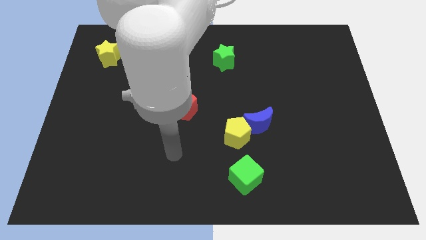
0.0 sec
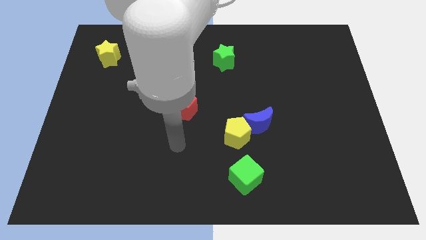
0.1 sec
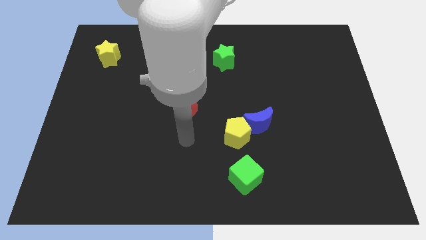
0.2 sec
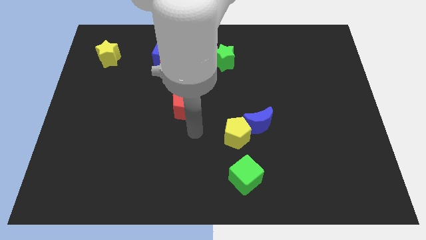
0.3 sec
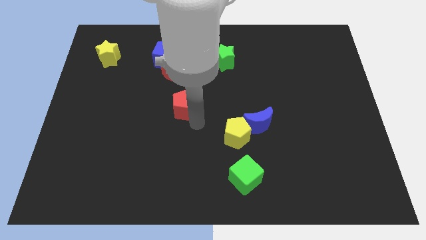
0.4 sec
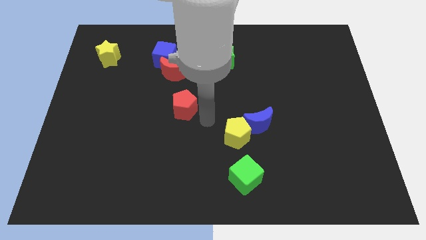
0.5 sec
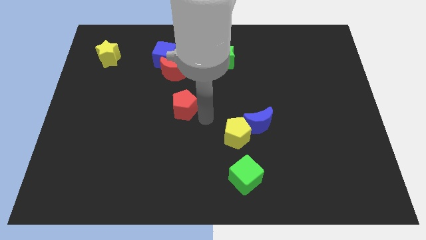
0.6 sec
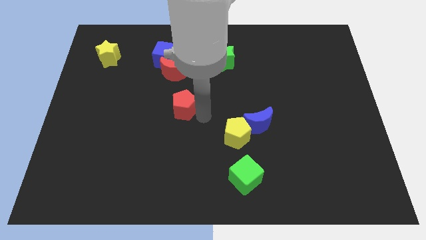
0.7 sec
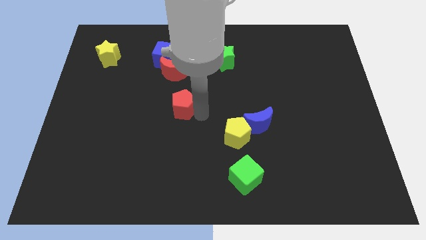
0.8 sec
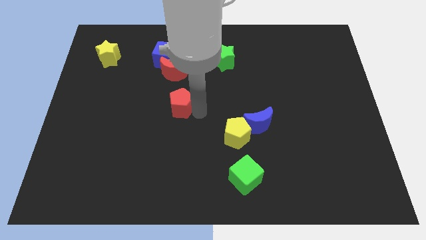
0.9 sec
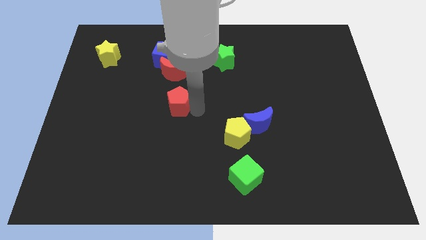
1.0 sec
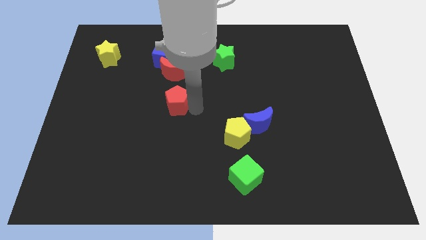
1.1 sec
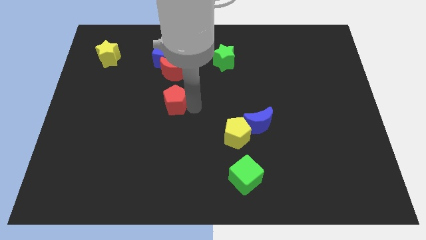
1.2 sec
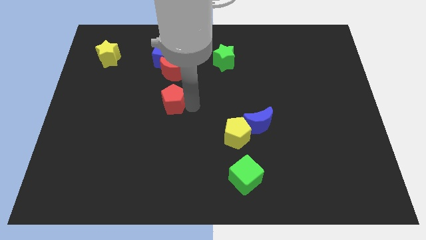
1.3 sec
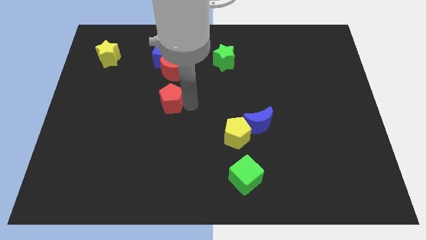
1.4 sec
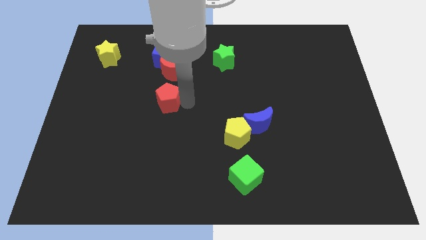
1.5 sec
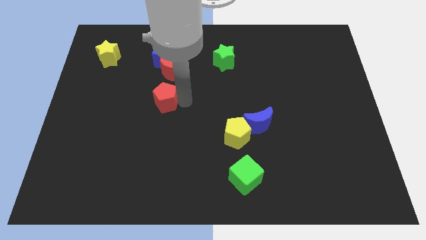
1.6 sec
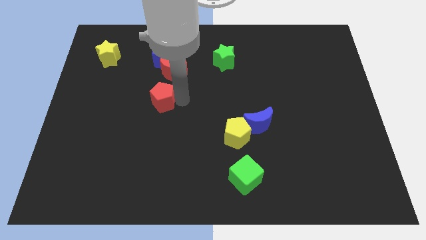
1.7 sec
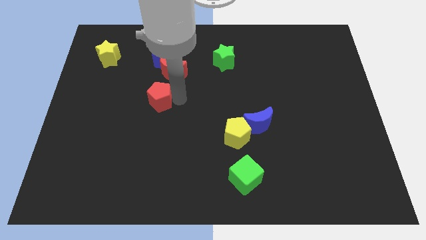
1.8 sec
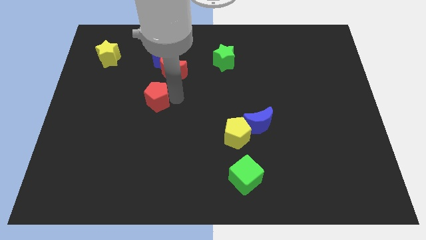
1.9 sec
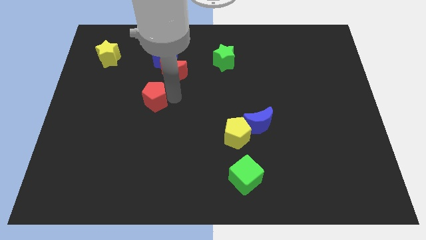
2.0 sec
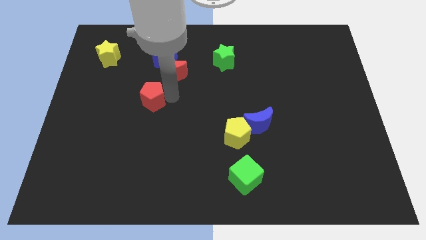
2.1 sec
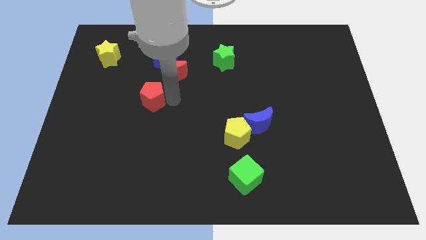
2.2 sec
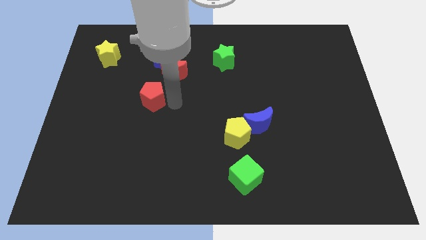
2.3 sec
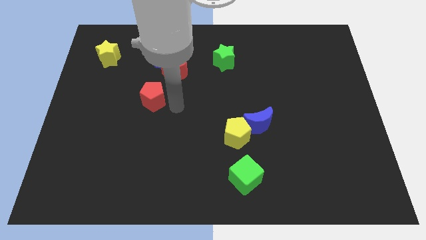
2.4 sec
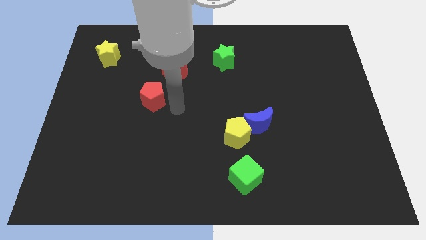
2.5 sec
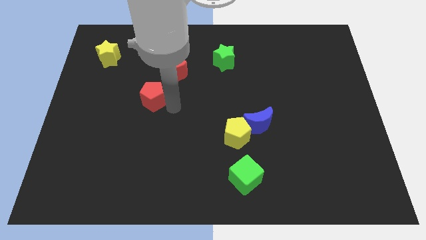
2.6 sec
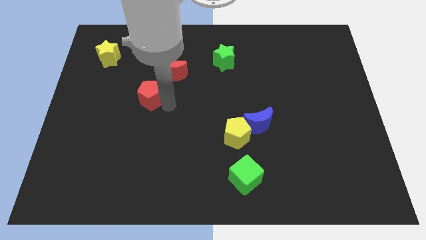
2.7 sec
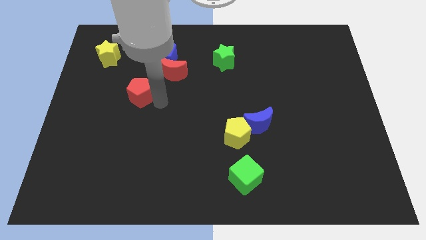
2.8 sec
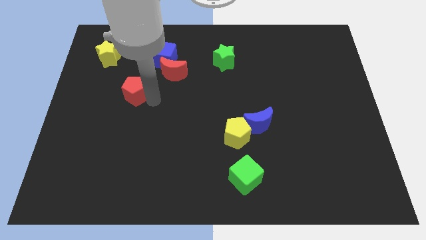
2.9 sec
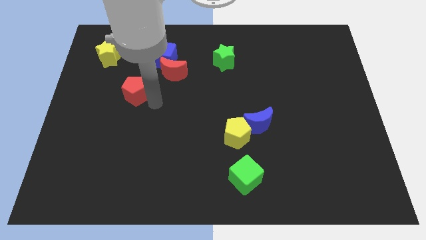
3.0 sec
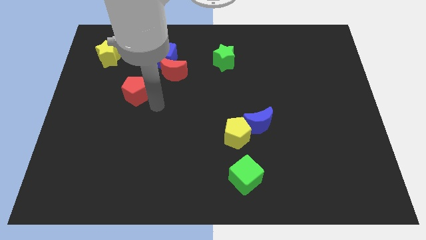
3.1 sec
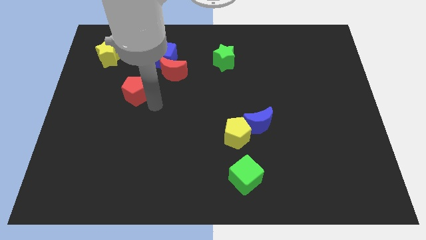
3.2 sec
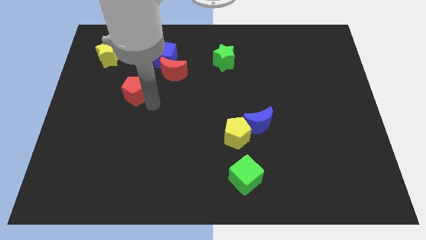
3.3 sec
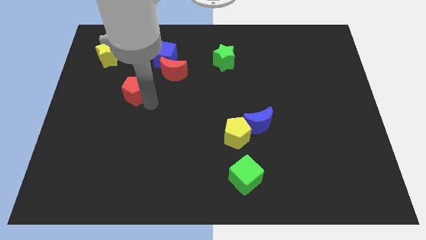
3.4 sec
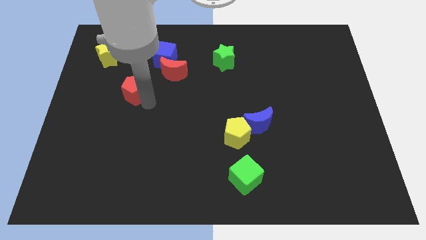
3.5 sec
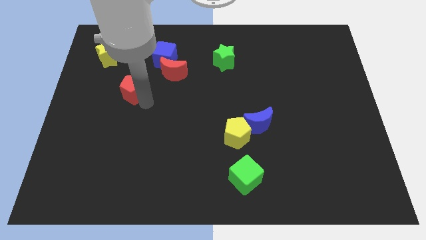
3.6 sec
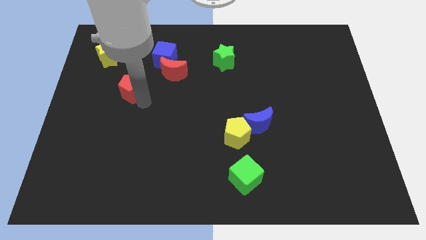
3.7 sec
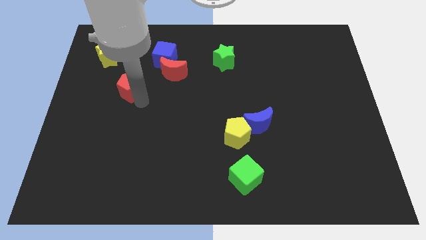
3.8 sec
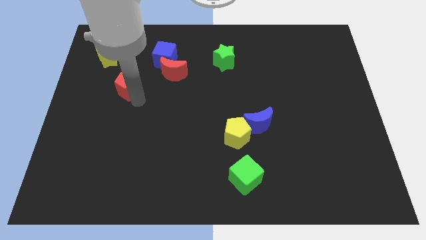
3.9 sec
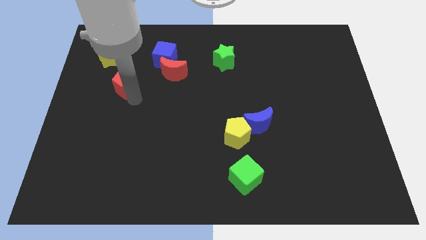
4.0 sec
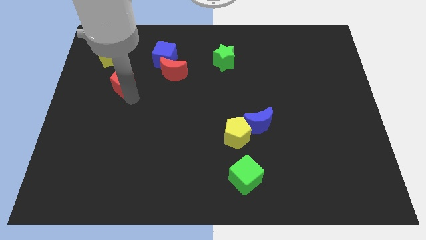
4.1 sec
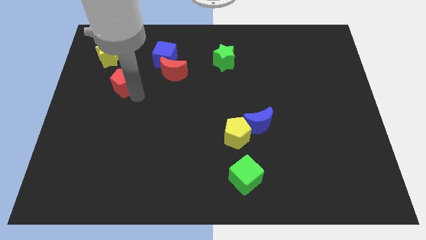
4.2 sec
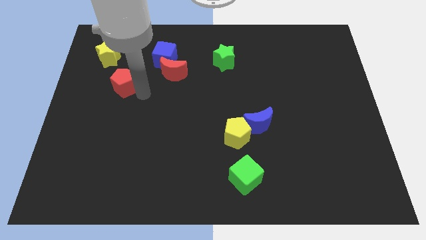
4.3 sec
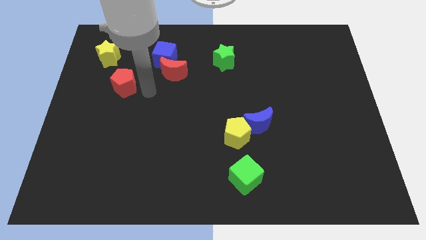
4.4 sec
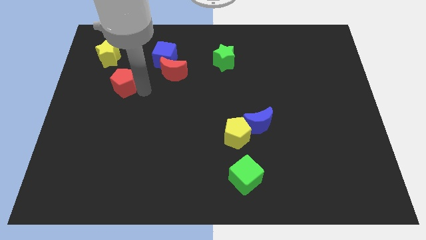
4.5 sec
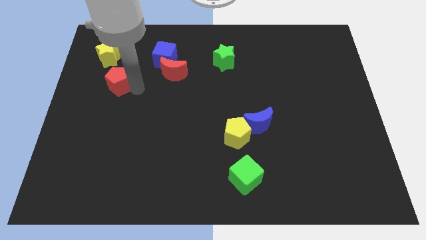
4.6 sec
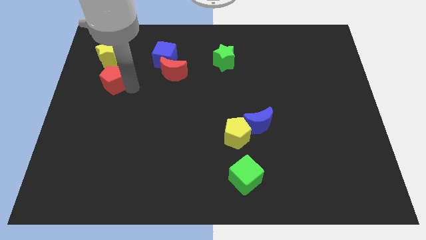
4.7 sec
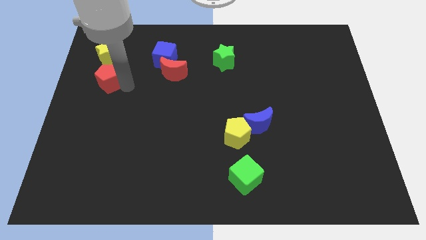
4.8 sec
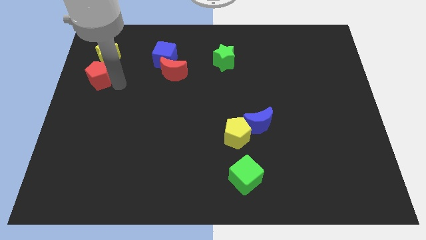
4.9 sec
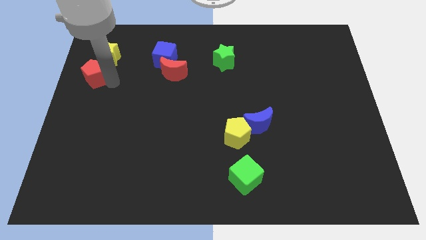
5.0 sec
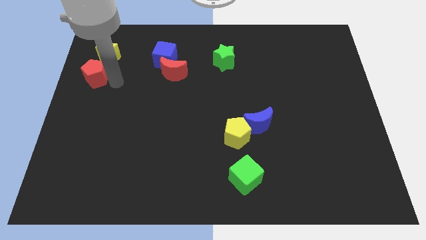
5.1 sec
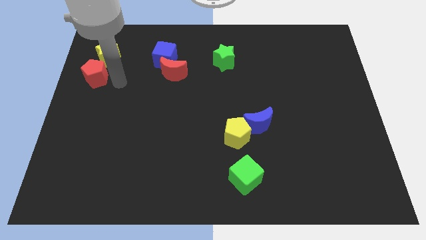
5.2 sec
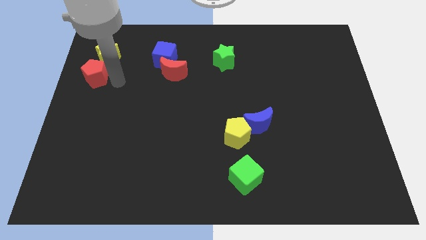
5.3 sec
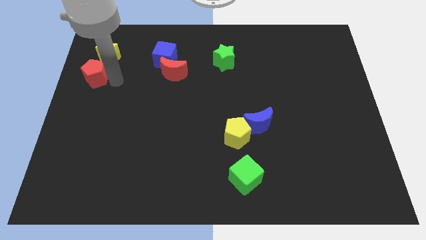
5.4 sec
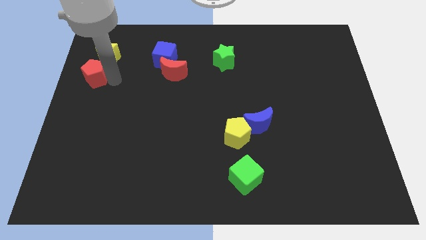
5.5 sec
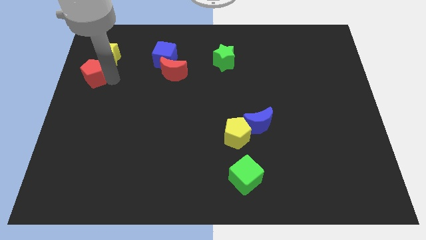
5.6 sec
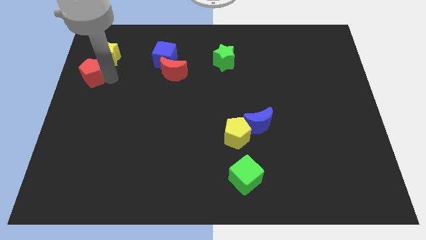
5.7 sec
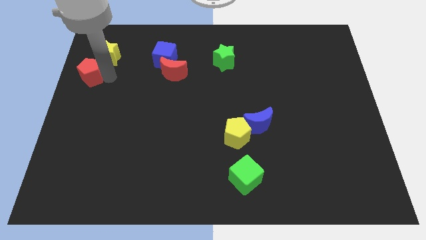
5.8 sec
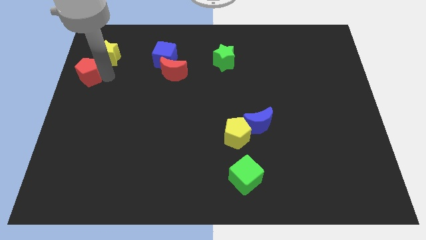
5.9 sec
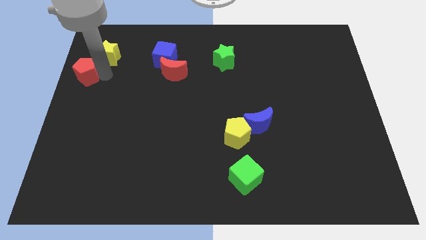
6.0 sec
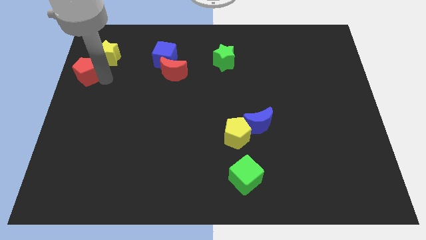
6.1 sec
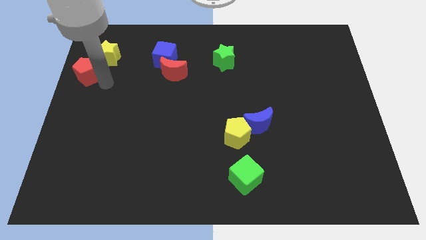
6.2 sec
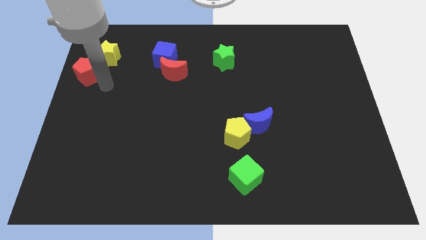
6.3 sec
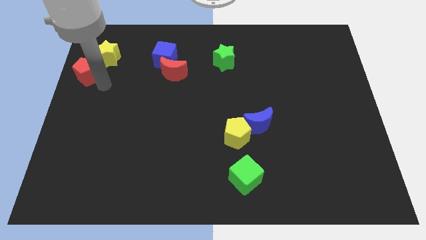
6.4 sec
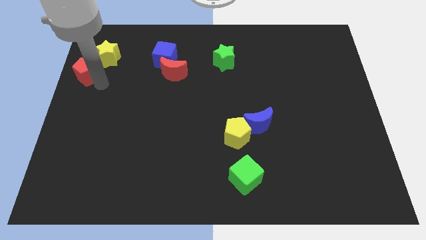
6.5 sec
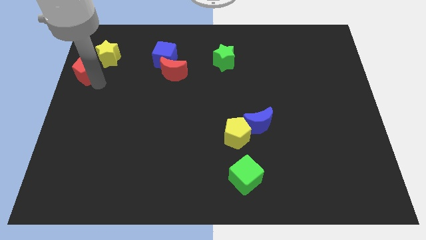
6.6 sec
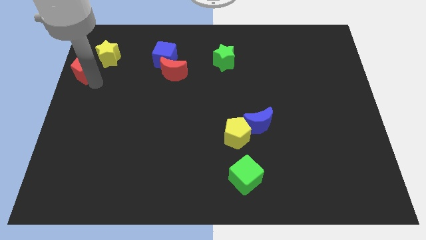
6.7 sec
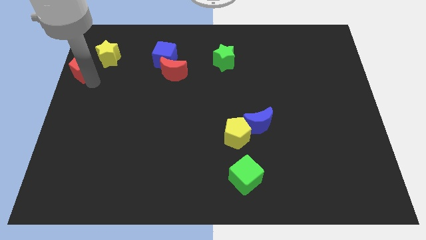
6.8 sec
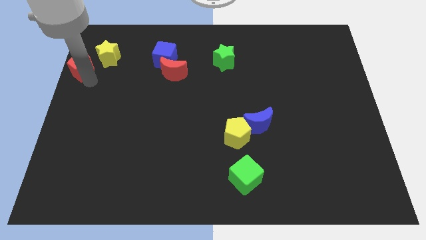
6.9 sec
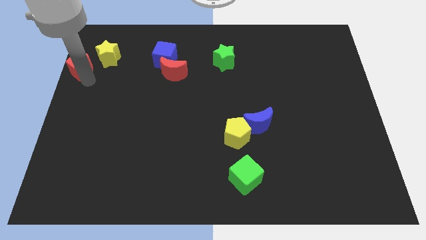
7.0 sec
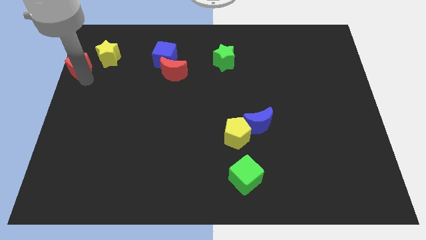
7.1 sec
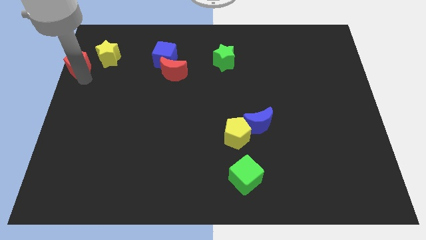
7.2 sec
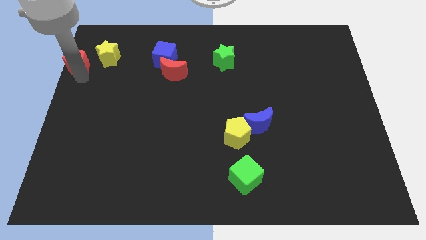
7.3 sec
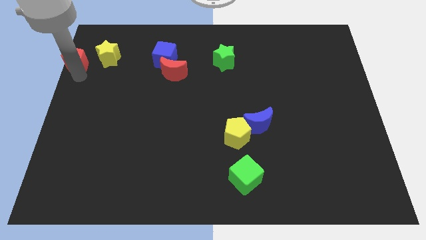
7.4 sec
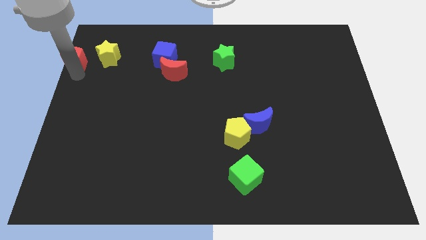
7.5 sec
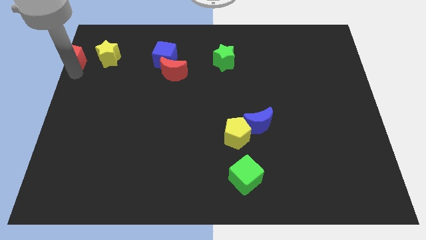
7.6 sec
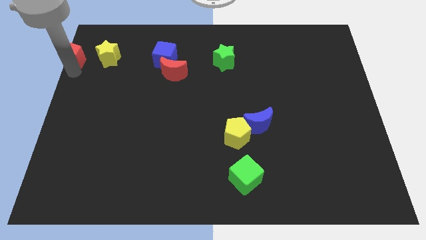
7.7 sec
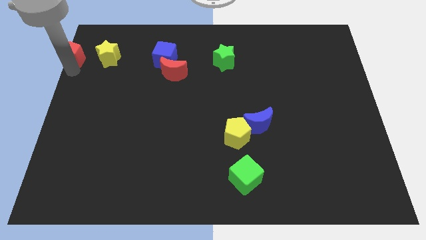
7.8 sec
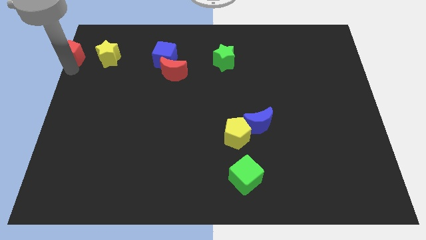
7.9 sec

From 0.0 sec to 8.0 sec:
push the red pentagon to the top left corner
